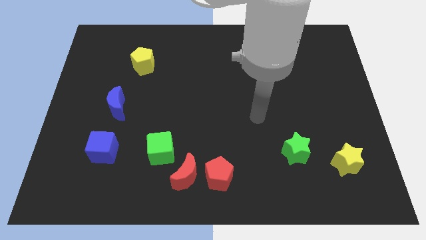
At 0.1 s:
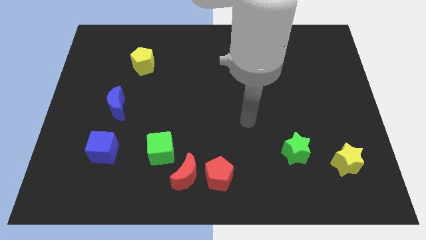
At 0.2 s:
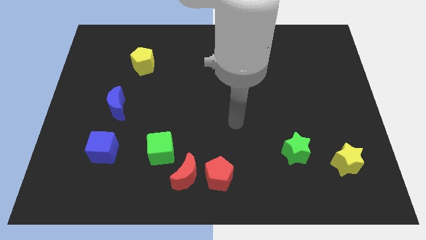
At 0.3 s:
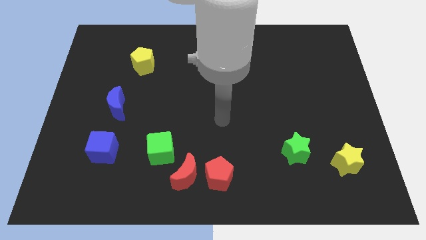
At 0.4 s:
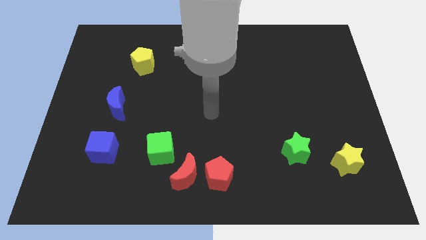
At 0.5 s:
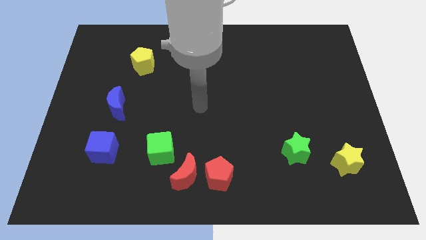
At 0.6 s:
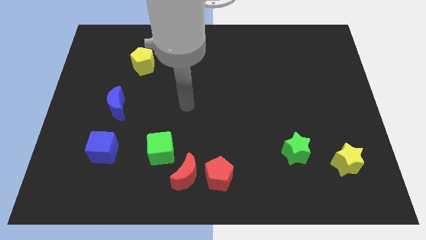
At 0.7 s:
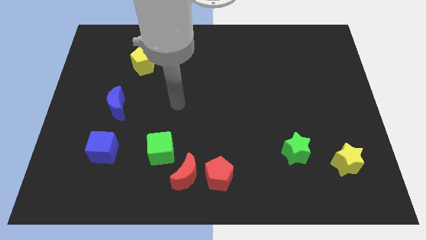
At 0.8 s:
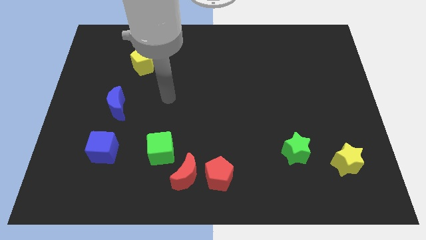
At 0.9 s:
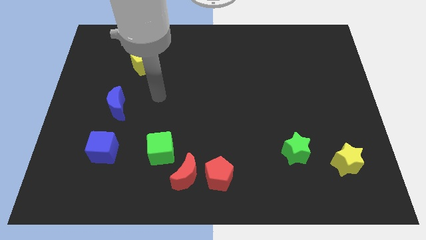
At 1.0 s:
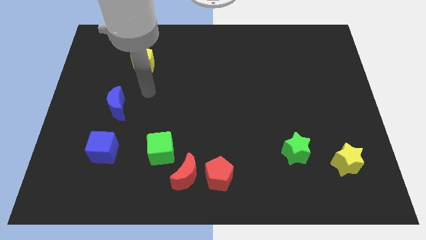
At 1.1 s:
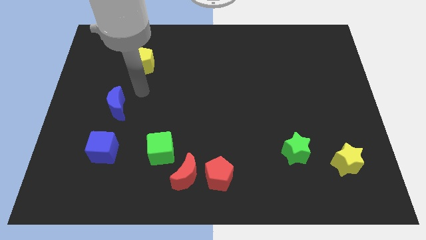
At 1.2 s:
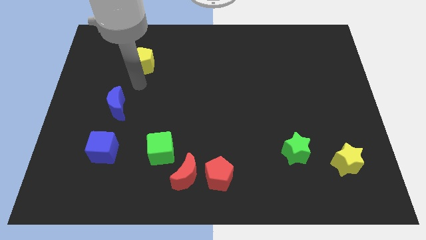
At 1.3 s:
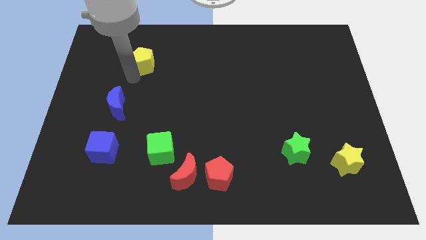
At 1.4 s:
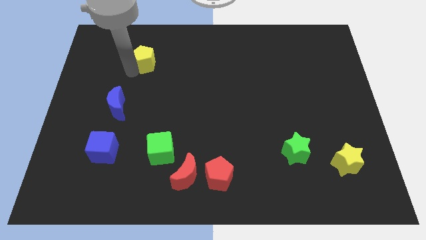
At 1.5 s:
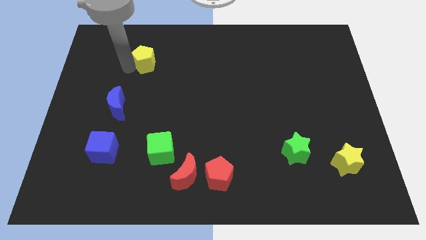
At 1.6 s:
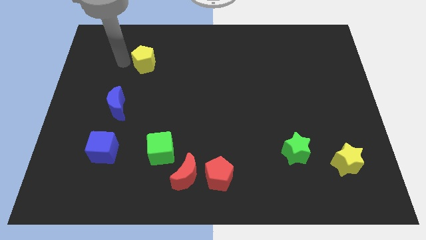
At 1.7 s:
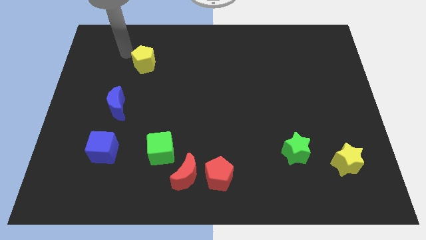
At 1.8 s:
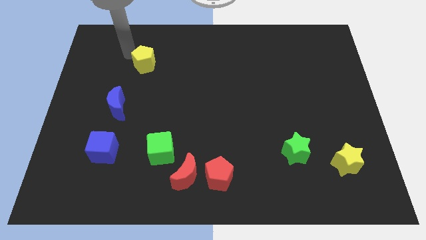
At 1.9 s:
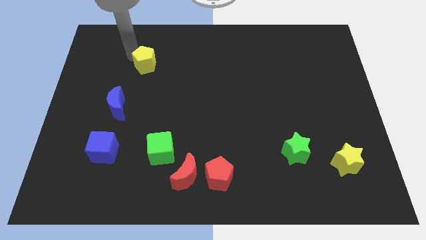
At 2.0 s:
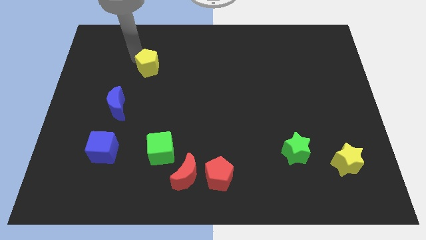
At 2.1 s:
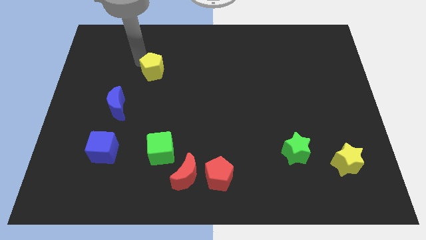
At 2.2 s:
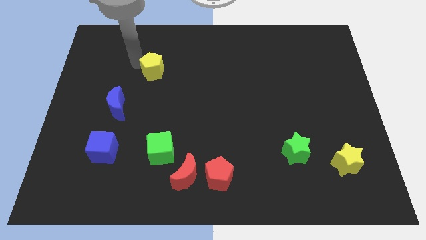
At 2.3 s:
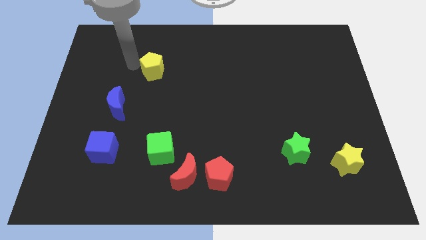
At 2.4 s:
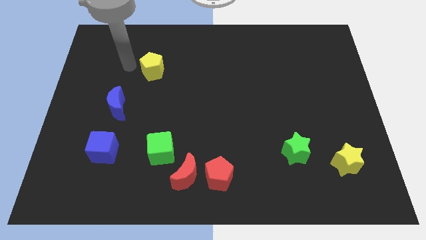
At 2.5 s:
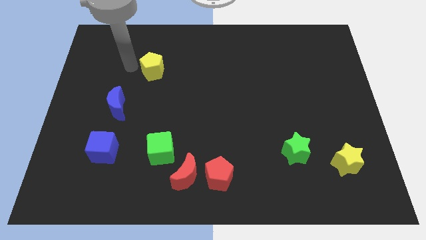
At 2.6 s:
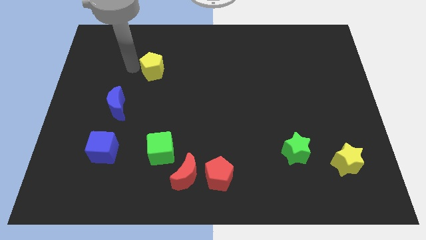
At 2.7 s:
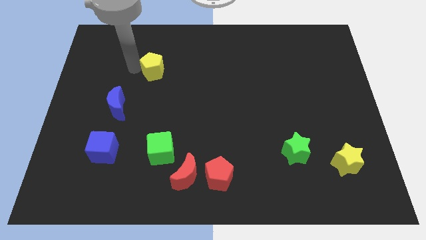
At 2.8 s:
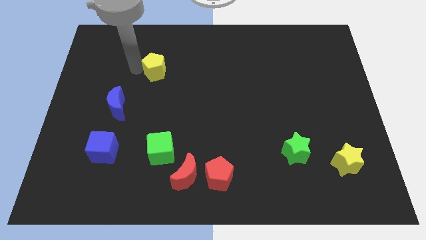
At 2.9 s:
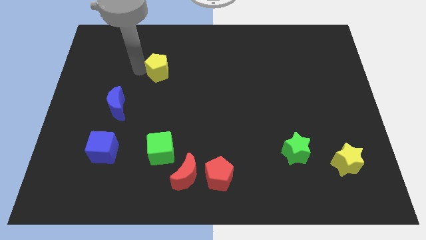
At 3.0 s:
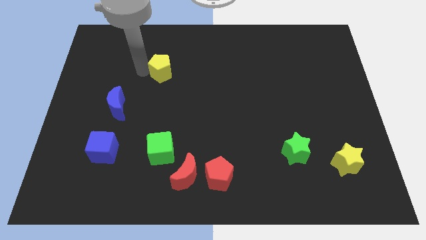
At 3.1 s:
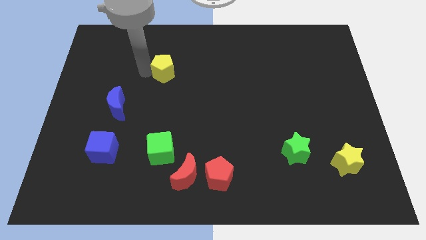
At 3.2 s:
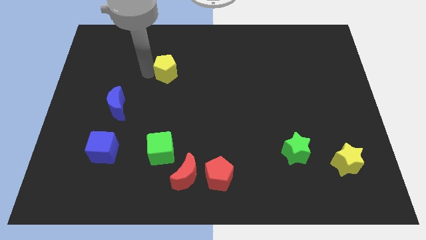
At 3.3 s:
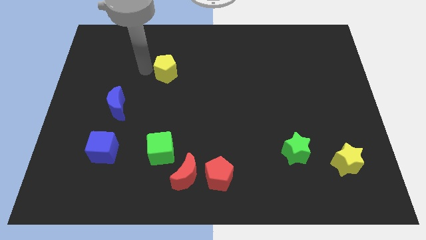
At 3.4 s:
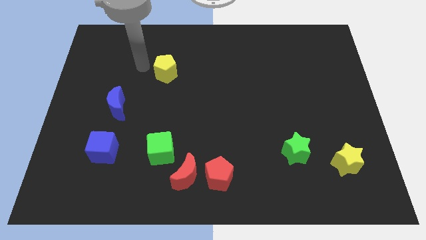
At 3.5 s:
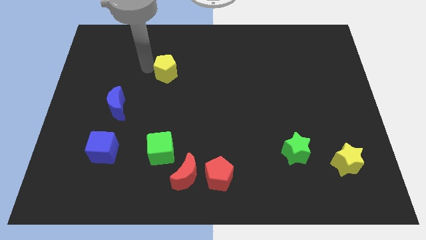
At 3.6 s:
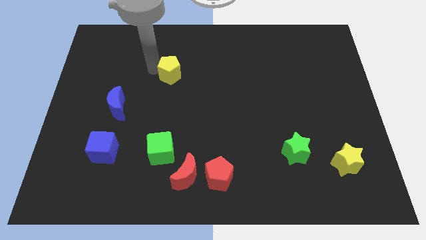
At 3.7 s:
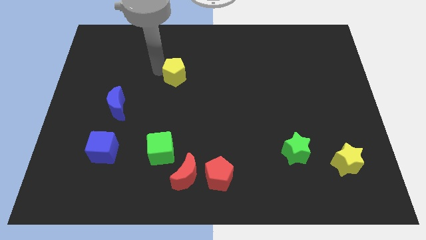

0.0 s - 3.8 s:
move the yellow pentagon to the center

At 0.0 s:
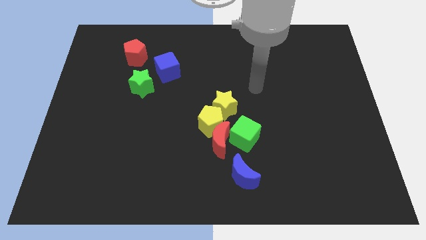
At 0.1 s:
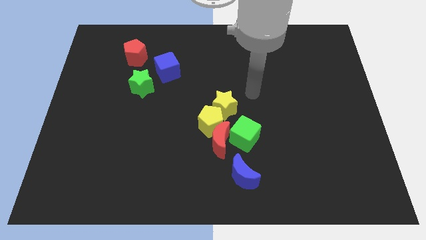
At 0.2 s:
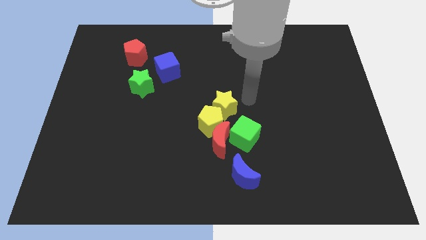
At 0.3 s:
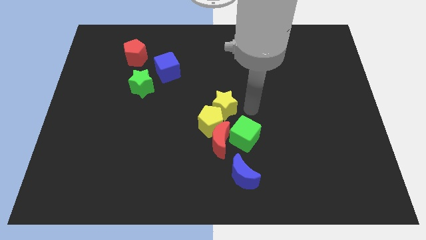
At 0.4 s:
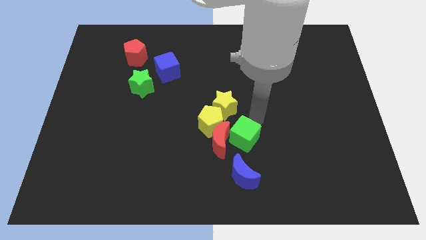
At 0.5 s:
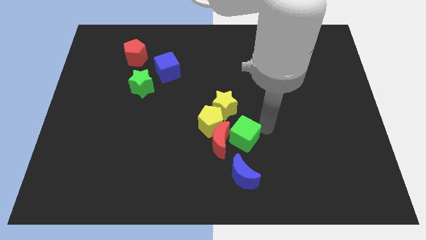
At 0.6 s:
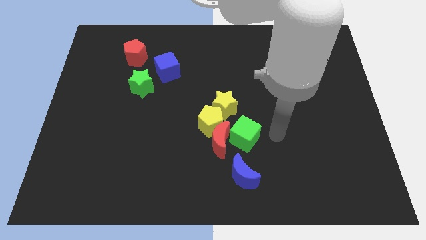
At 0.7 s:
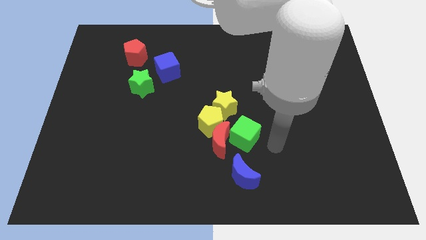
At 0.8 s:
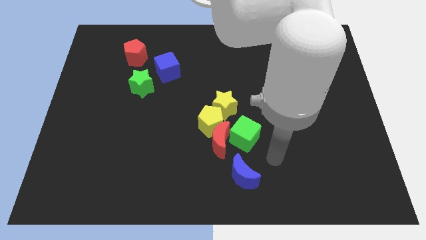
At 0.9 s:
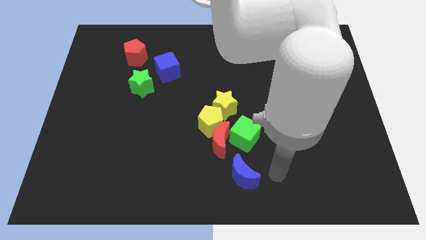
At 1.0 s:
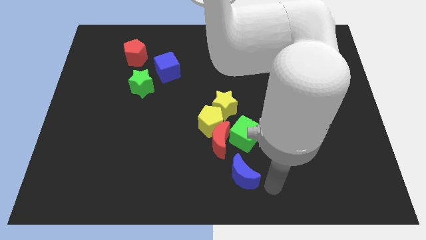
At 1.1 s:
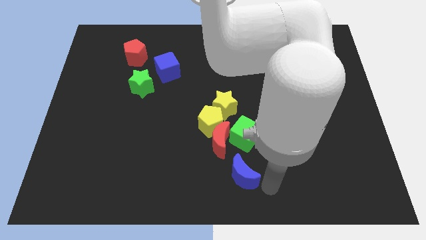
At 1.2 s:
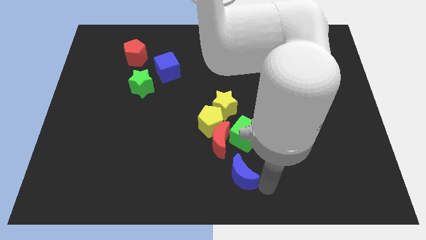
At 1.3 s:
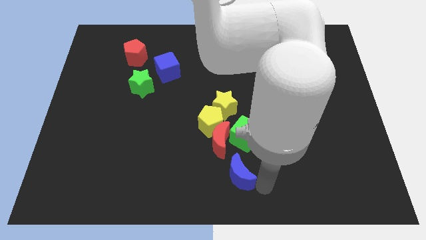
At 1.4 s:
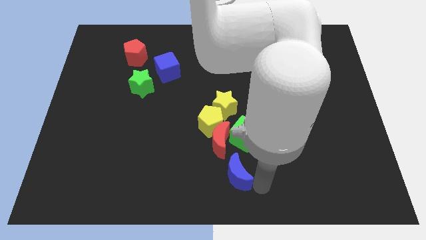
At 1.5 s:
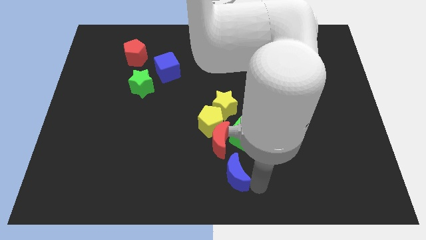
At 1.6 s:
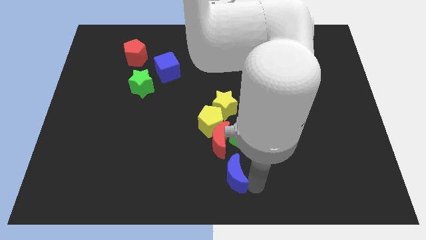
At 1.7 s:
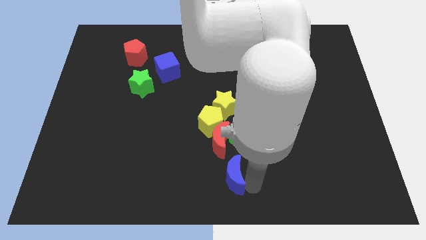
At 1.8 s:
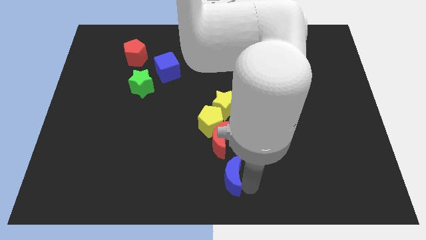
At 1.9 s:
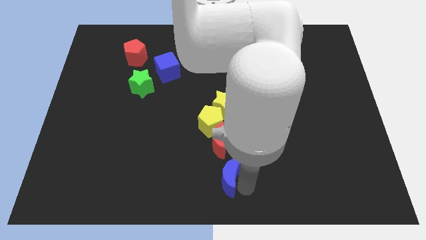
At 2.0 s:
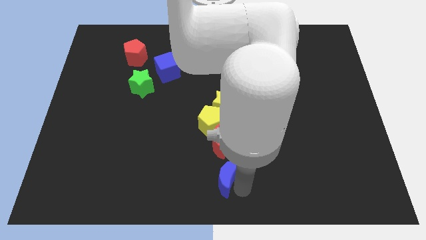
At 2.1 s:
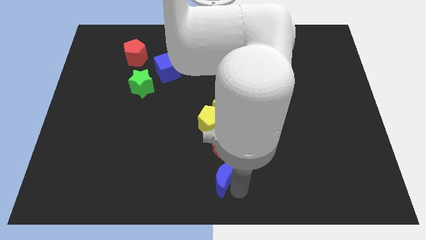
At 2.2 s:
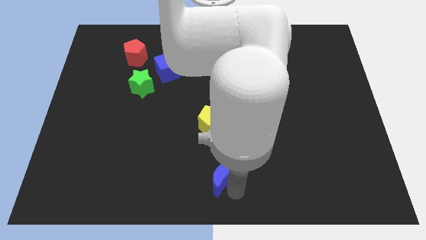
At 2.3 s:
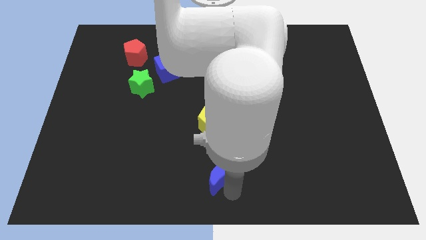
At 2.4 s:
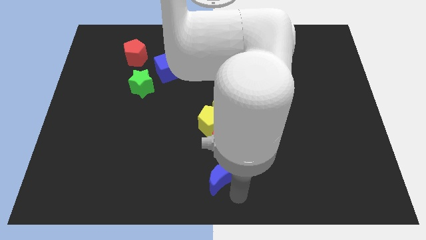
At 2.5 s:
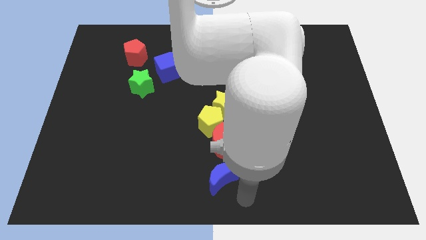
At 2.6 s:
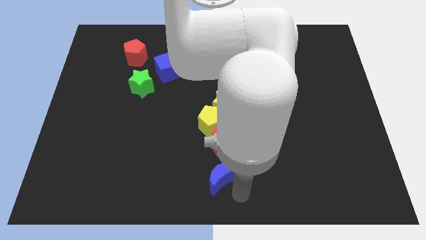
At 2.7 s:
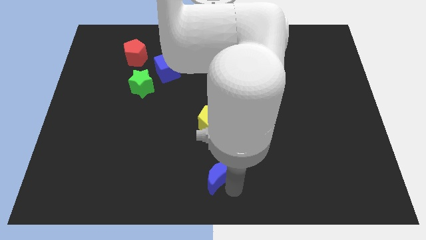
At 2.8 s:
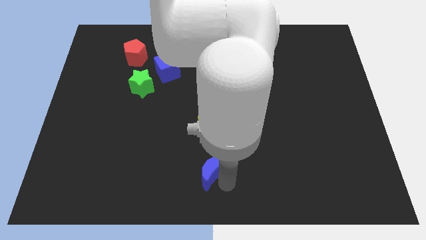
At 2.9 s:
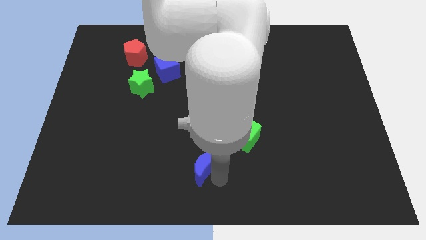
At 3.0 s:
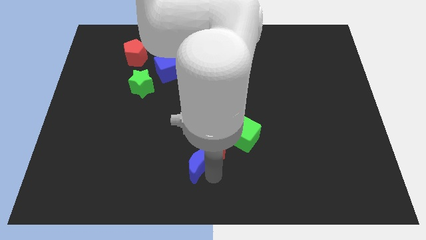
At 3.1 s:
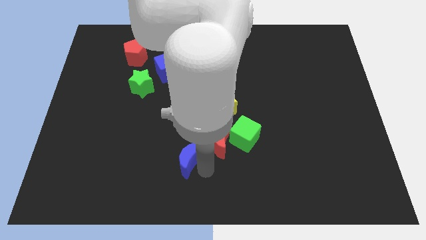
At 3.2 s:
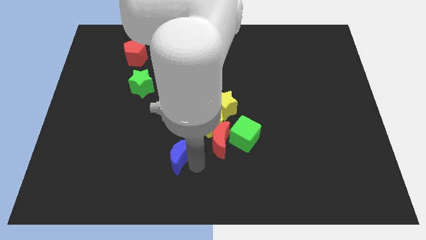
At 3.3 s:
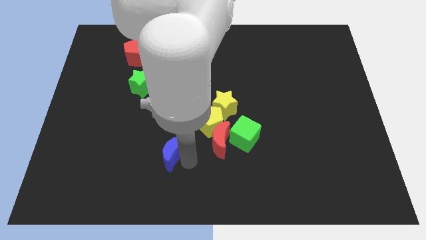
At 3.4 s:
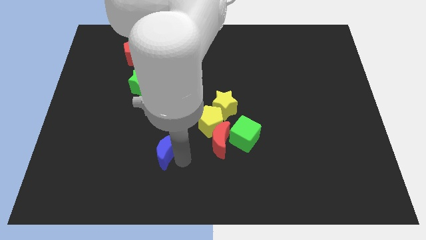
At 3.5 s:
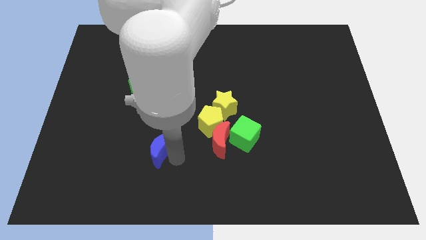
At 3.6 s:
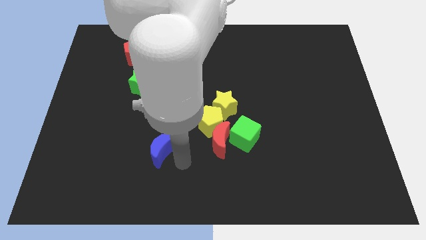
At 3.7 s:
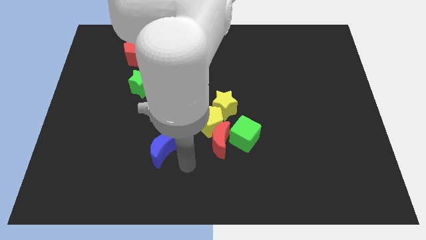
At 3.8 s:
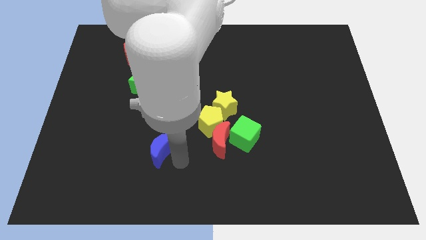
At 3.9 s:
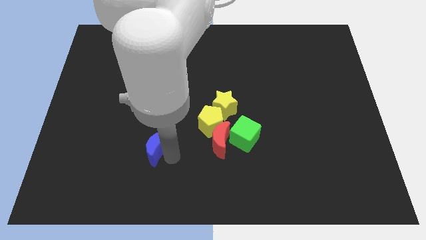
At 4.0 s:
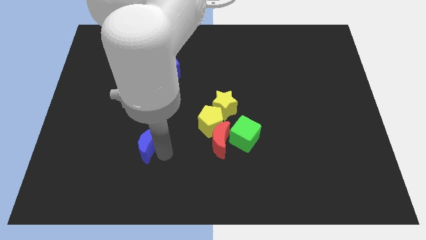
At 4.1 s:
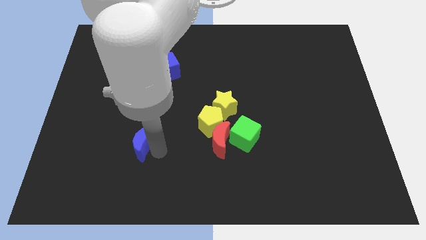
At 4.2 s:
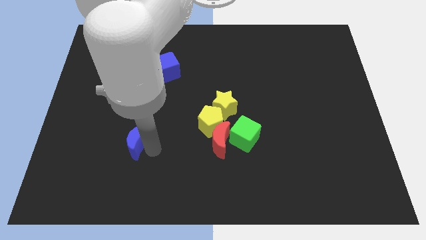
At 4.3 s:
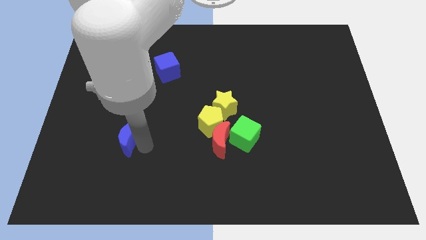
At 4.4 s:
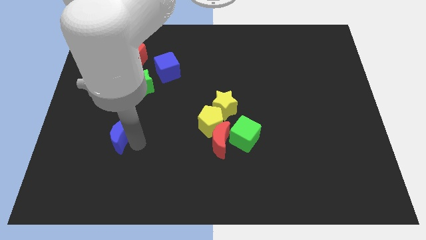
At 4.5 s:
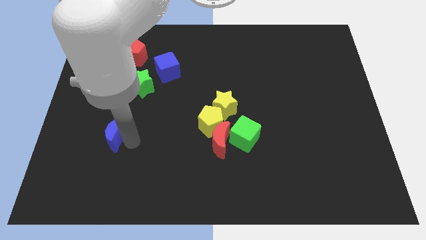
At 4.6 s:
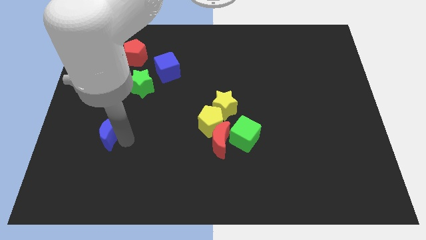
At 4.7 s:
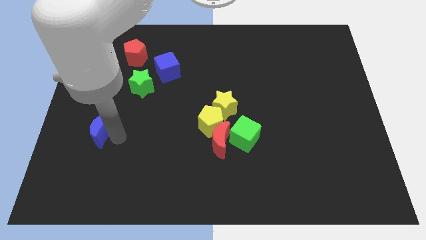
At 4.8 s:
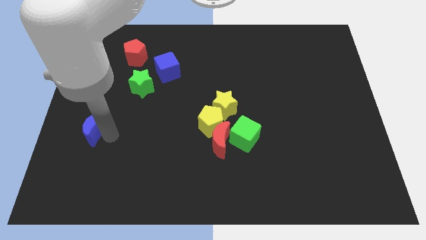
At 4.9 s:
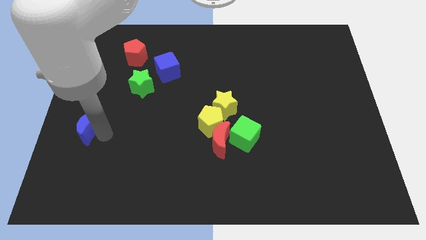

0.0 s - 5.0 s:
push the blue moon to the center left
